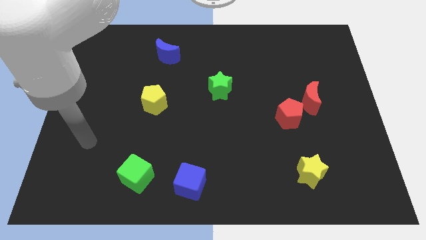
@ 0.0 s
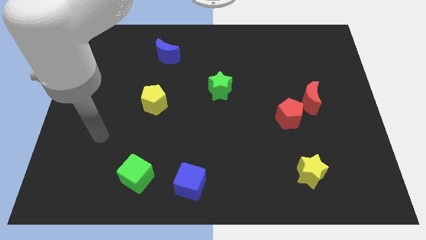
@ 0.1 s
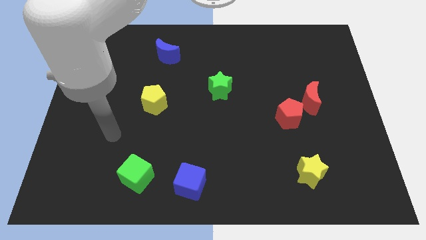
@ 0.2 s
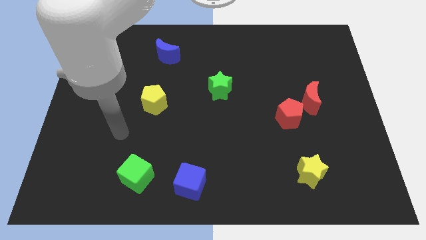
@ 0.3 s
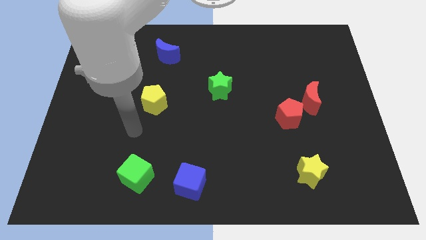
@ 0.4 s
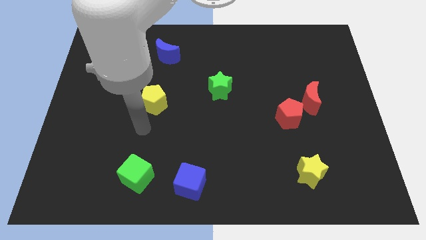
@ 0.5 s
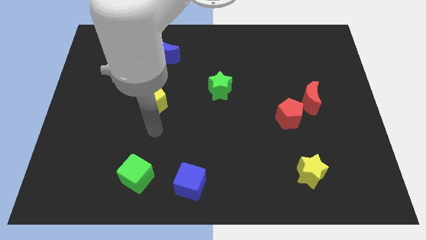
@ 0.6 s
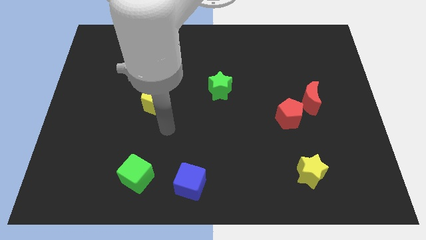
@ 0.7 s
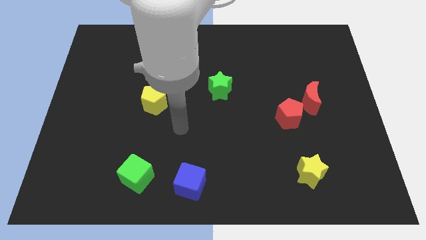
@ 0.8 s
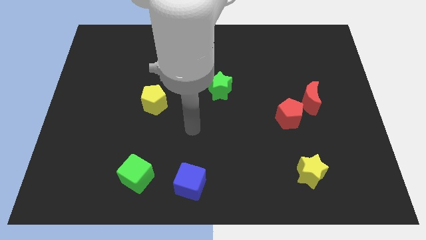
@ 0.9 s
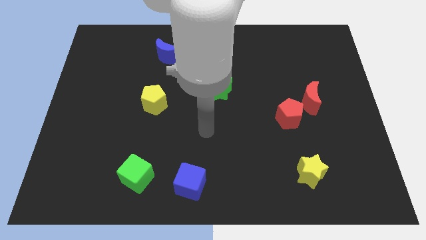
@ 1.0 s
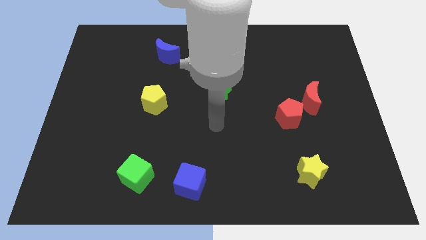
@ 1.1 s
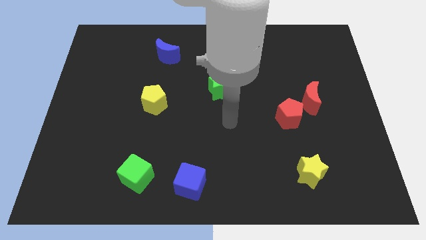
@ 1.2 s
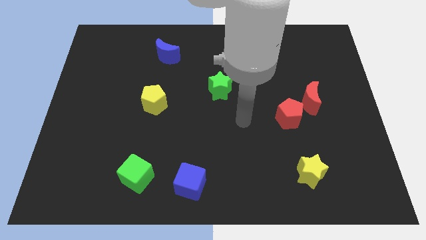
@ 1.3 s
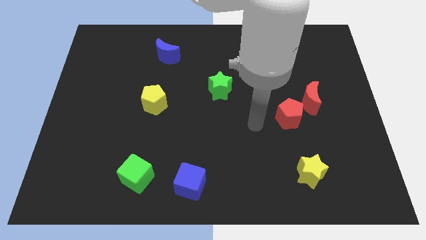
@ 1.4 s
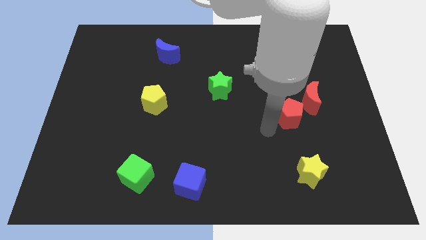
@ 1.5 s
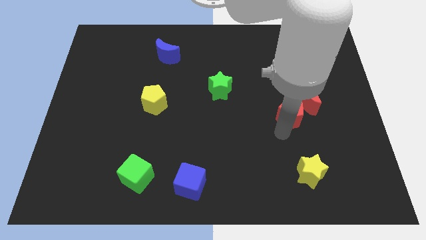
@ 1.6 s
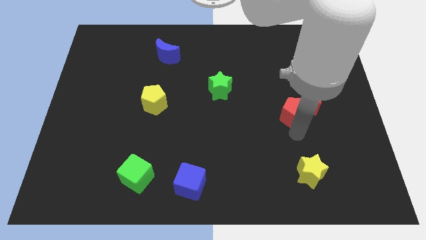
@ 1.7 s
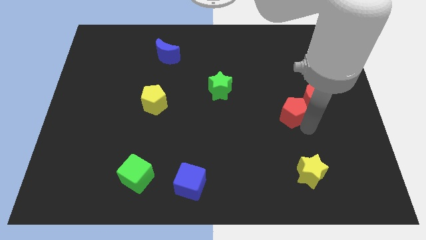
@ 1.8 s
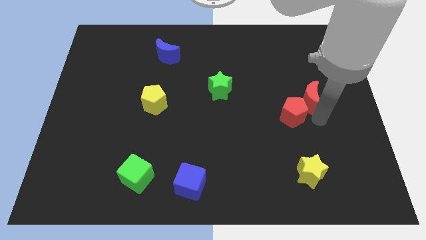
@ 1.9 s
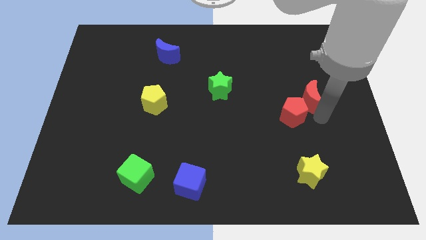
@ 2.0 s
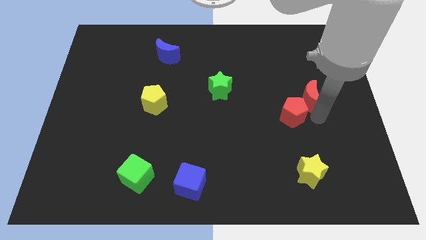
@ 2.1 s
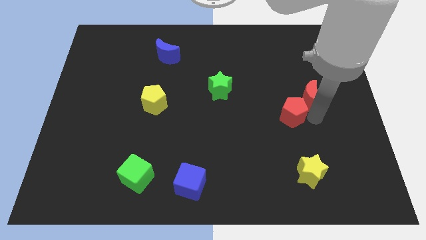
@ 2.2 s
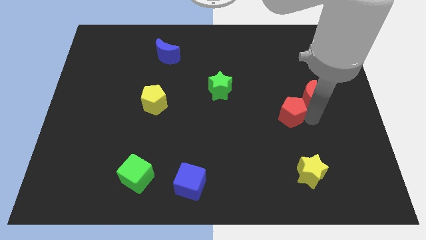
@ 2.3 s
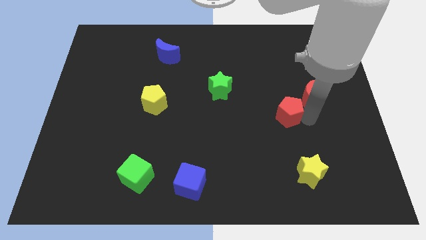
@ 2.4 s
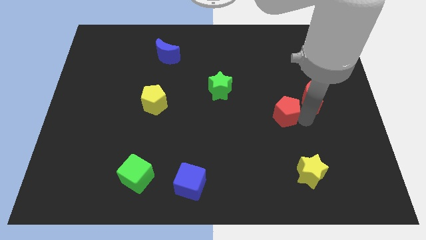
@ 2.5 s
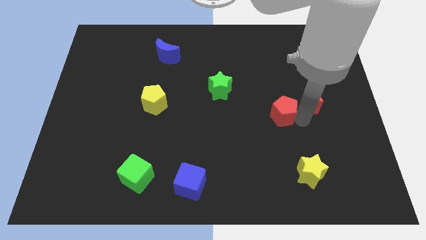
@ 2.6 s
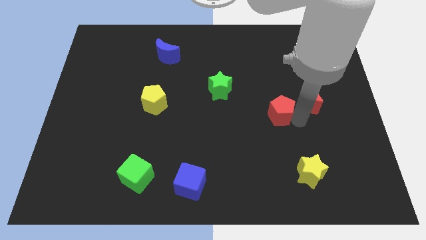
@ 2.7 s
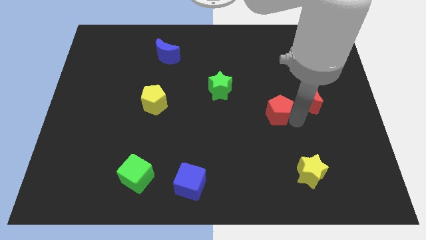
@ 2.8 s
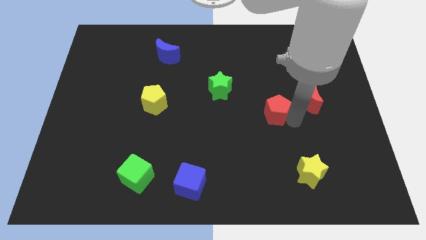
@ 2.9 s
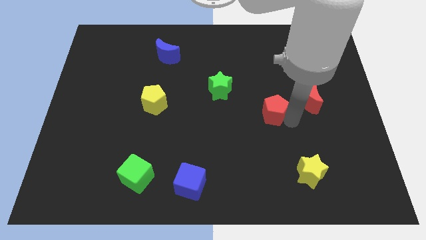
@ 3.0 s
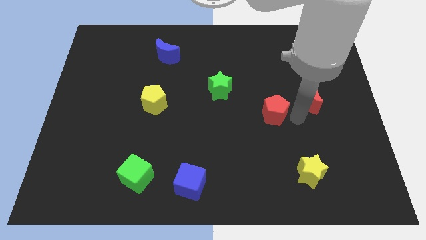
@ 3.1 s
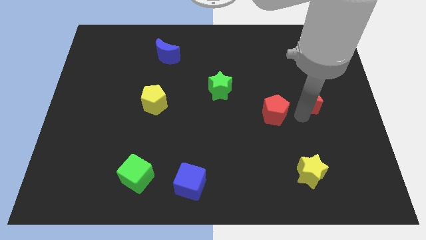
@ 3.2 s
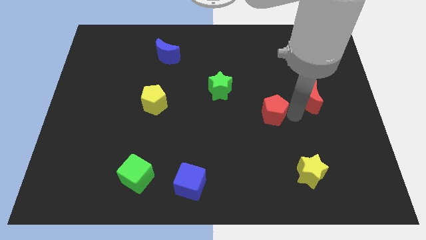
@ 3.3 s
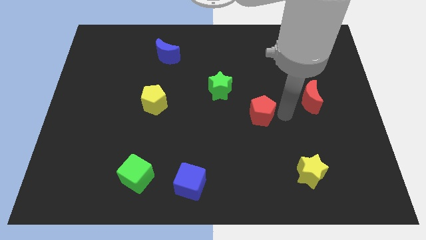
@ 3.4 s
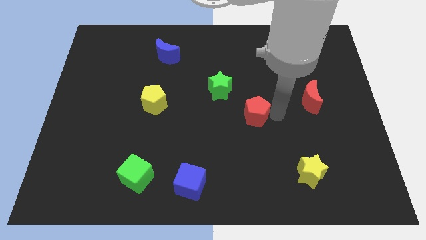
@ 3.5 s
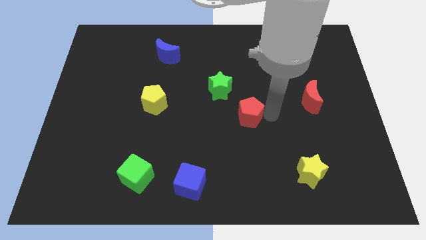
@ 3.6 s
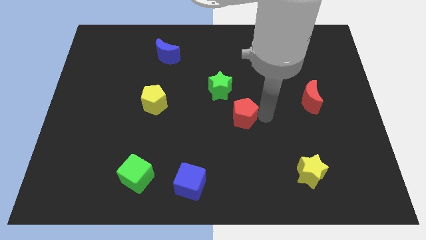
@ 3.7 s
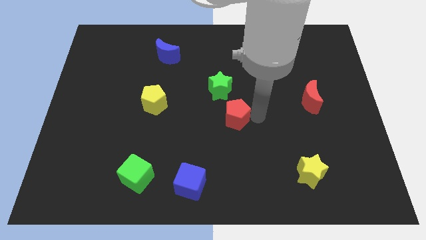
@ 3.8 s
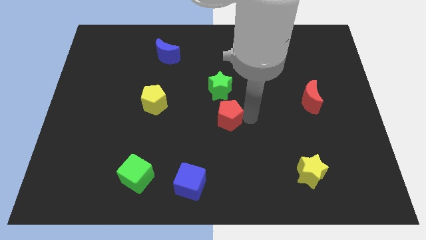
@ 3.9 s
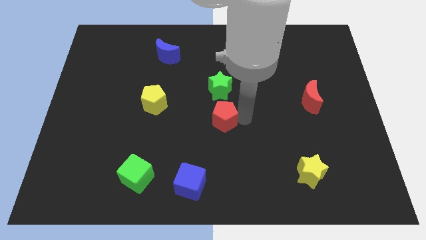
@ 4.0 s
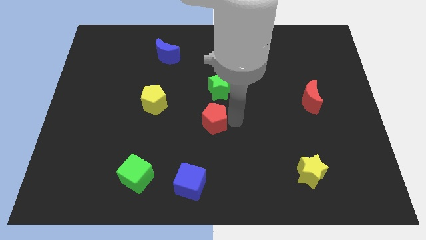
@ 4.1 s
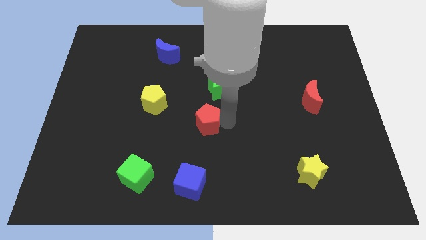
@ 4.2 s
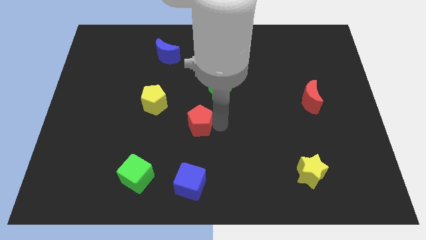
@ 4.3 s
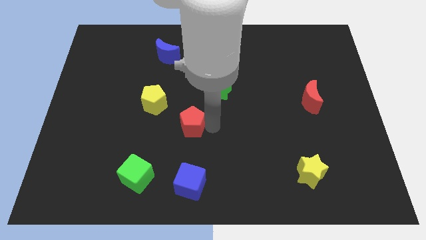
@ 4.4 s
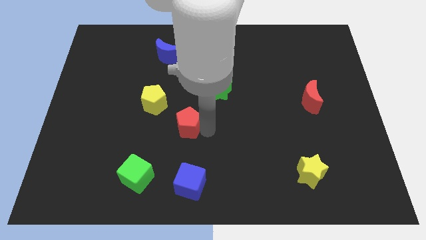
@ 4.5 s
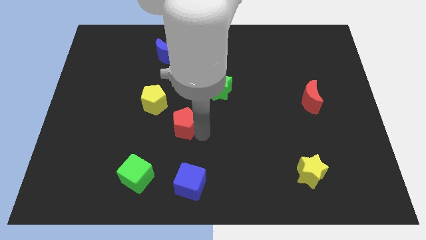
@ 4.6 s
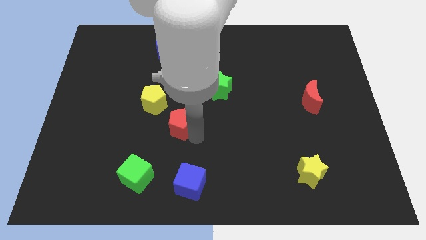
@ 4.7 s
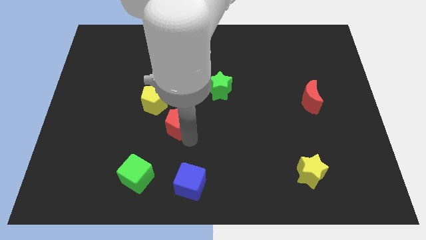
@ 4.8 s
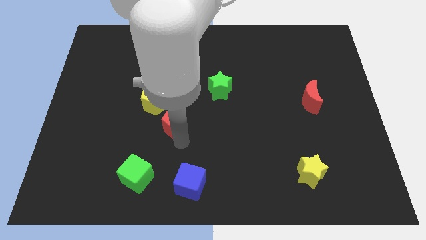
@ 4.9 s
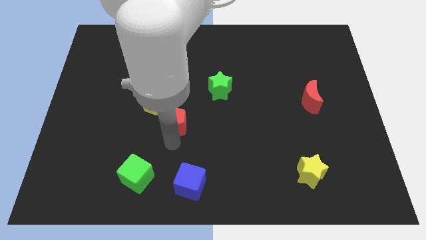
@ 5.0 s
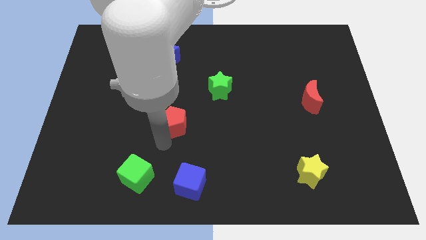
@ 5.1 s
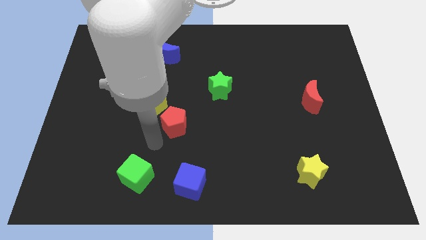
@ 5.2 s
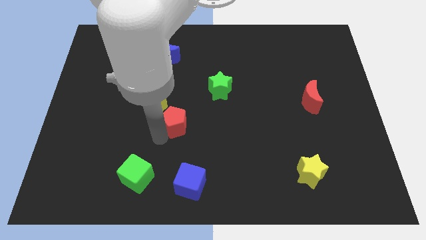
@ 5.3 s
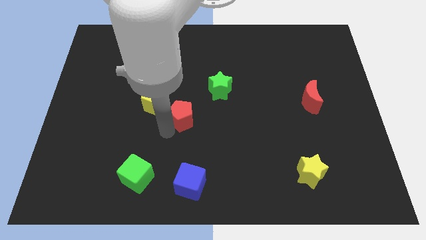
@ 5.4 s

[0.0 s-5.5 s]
push the red pentagon right of the yellow pentagon

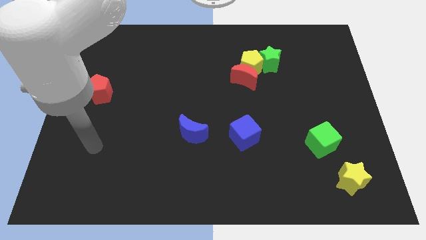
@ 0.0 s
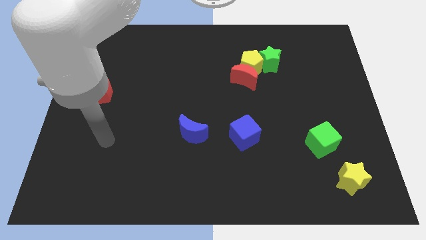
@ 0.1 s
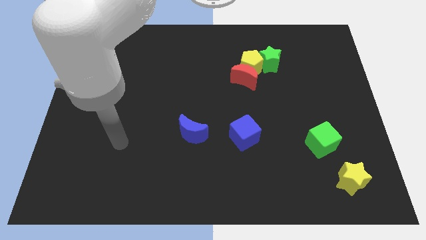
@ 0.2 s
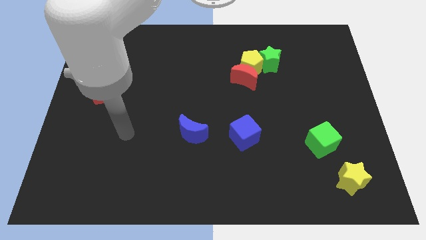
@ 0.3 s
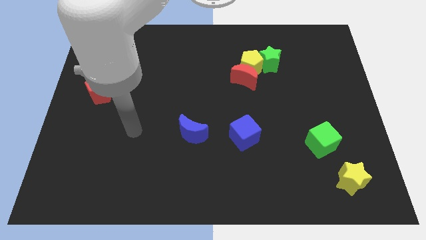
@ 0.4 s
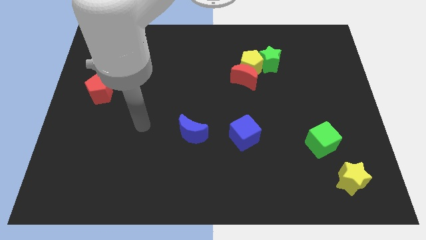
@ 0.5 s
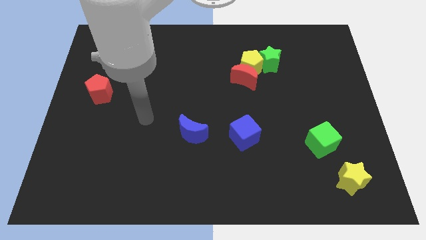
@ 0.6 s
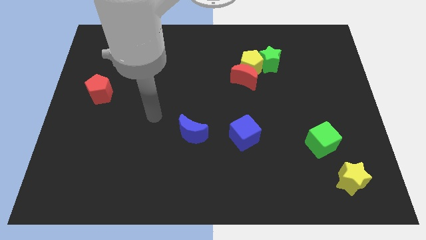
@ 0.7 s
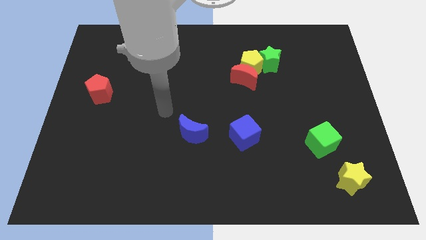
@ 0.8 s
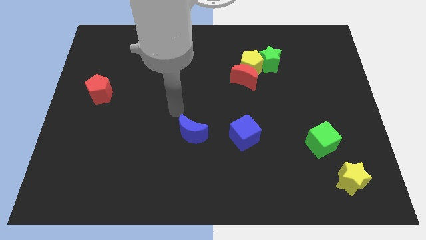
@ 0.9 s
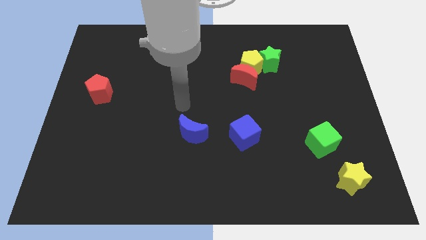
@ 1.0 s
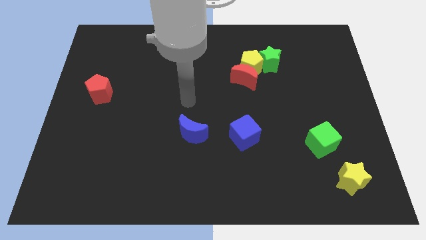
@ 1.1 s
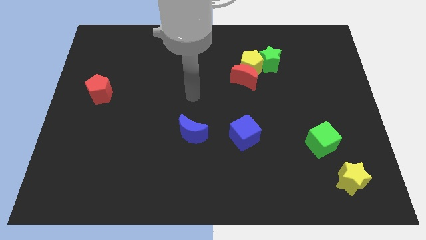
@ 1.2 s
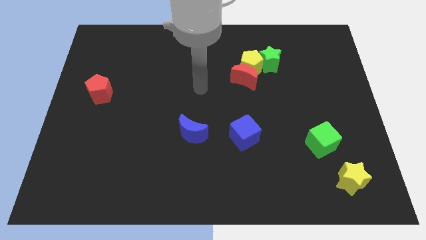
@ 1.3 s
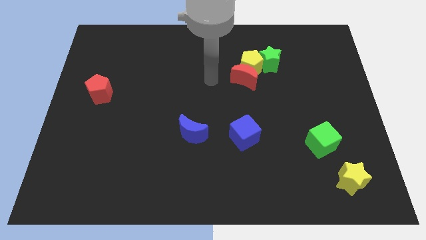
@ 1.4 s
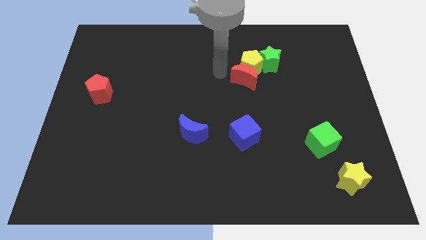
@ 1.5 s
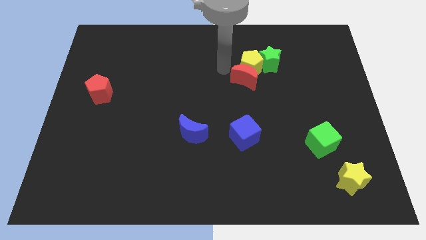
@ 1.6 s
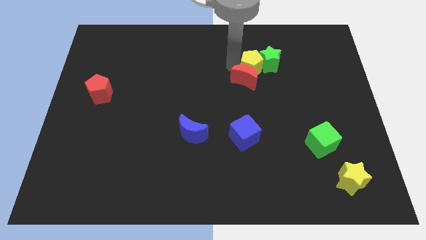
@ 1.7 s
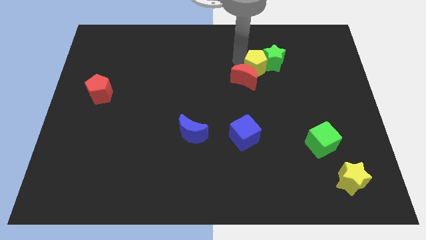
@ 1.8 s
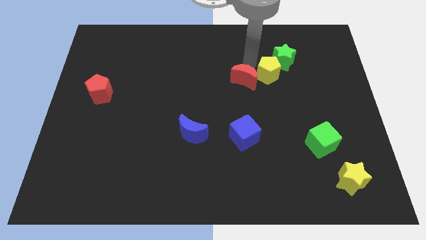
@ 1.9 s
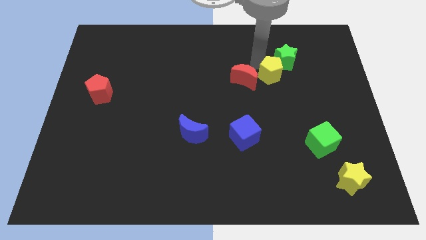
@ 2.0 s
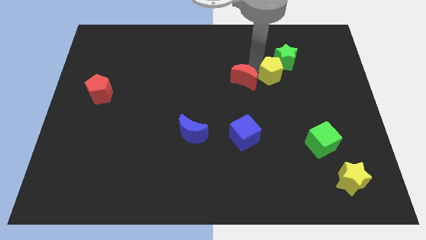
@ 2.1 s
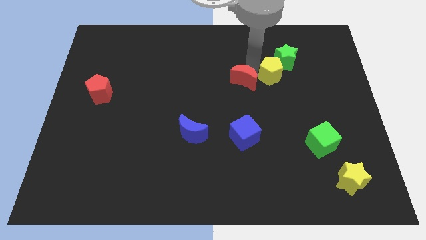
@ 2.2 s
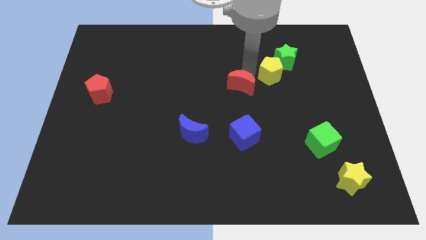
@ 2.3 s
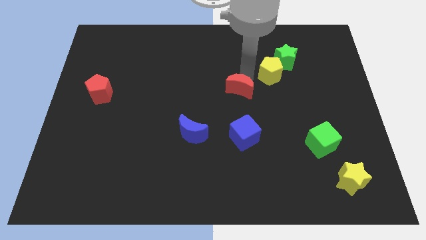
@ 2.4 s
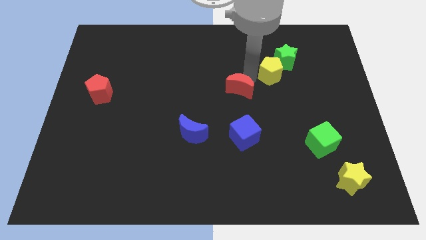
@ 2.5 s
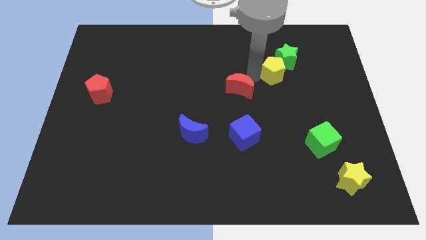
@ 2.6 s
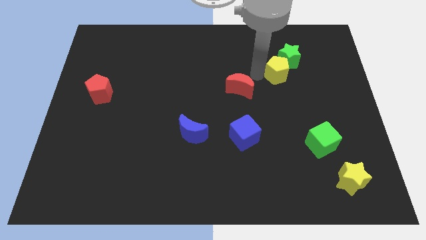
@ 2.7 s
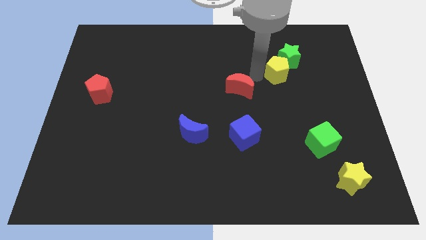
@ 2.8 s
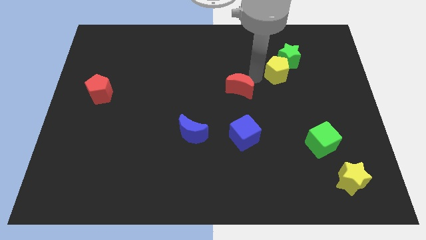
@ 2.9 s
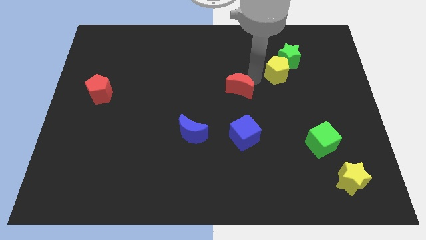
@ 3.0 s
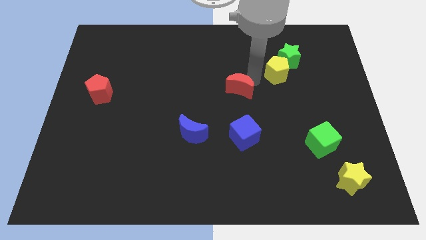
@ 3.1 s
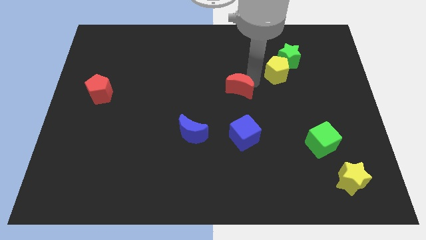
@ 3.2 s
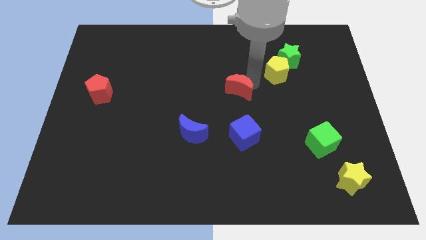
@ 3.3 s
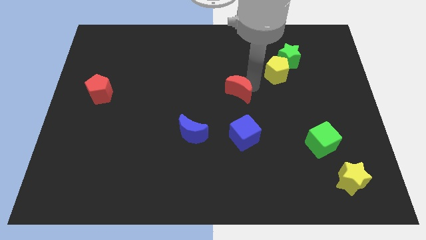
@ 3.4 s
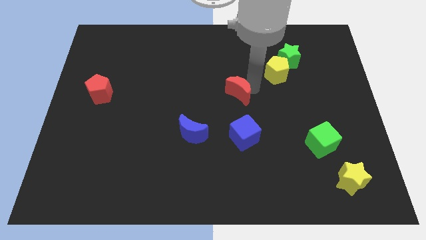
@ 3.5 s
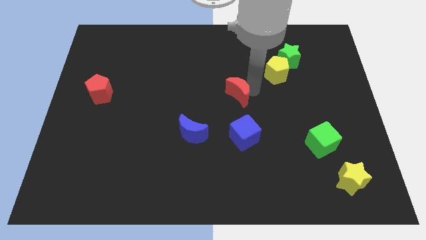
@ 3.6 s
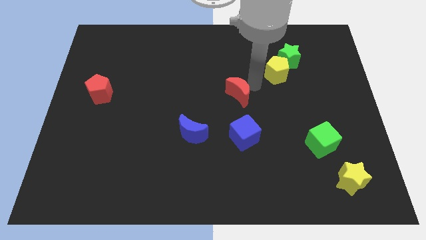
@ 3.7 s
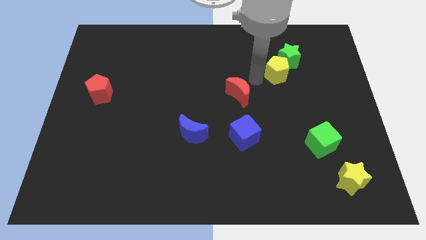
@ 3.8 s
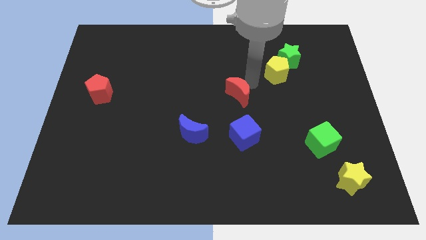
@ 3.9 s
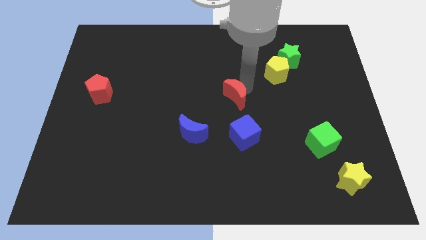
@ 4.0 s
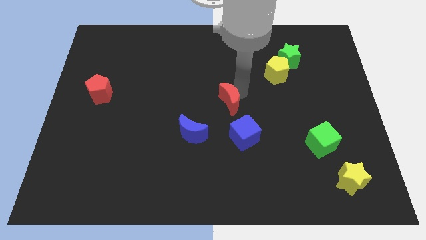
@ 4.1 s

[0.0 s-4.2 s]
push the red moon diagonally up and to the right of the blue moon
